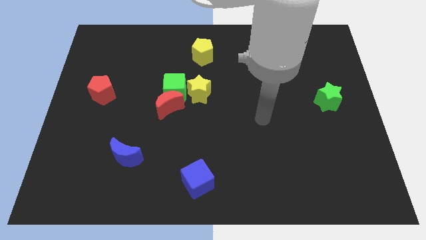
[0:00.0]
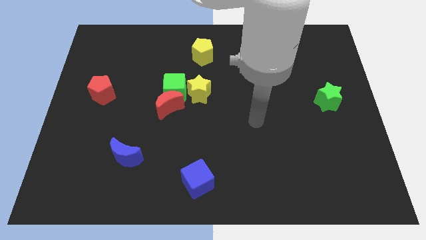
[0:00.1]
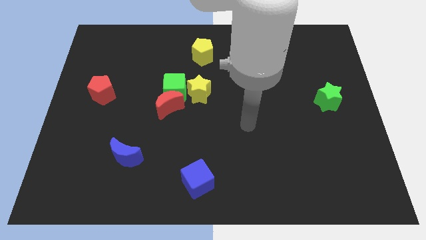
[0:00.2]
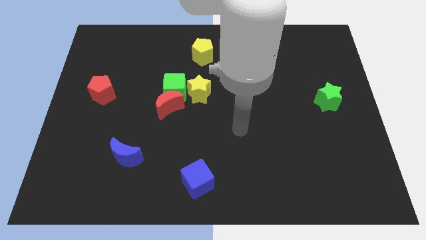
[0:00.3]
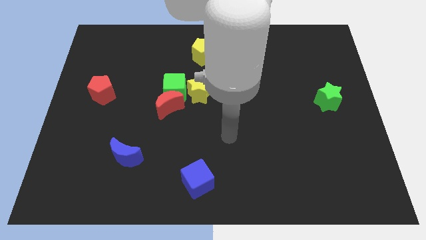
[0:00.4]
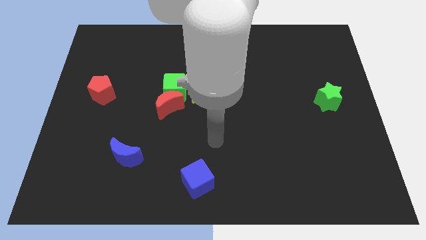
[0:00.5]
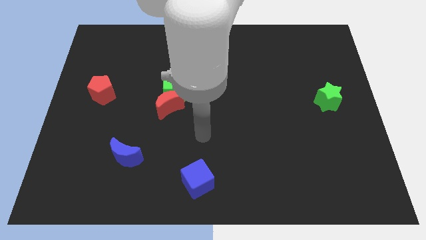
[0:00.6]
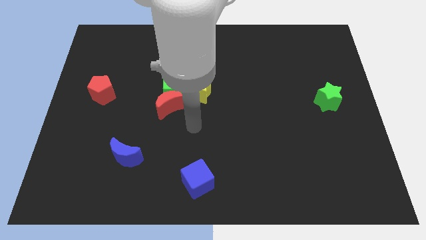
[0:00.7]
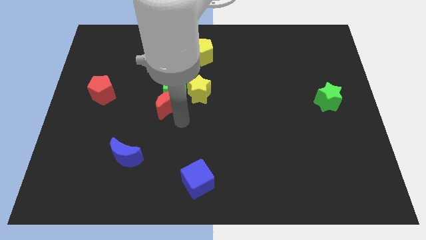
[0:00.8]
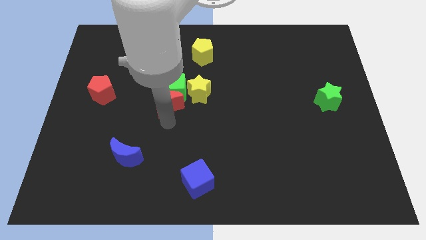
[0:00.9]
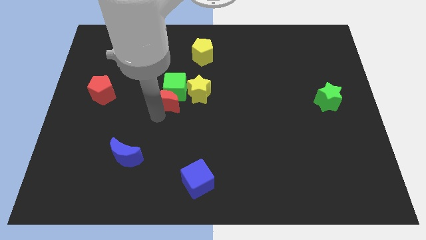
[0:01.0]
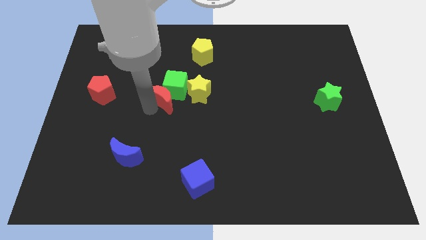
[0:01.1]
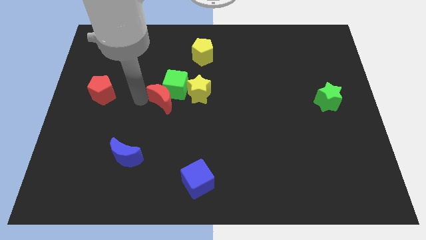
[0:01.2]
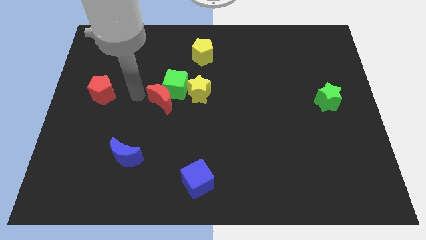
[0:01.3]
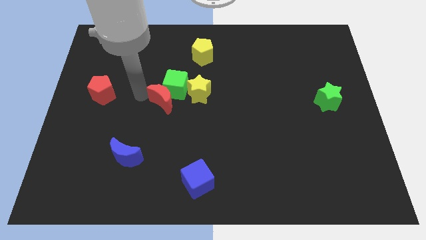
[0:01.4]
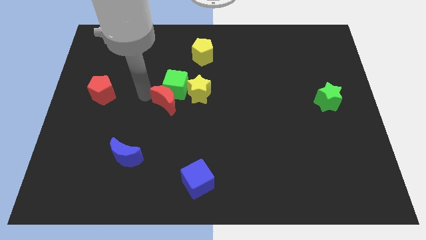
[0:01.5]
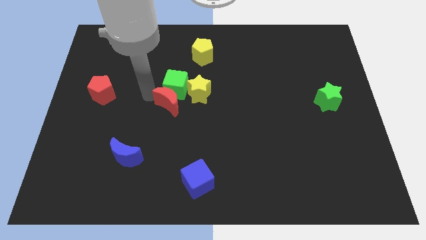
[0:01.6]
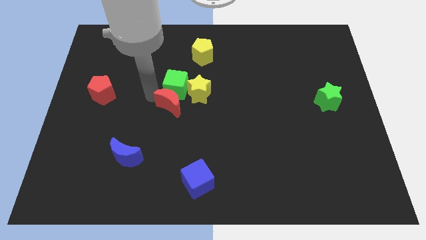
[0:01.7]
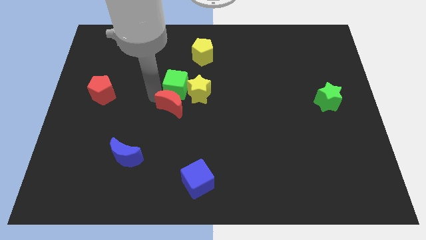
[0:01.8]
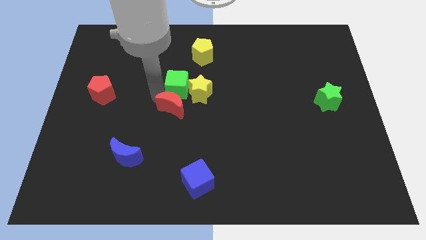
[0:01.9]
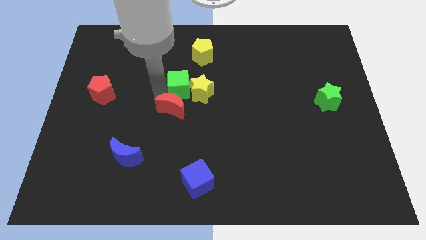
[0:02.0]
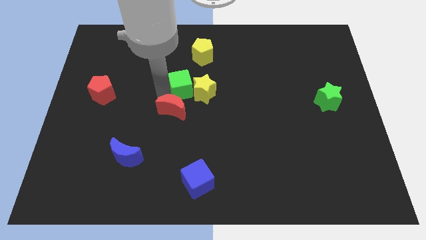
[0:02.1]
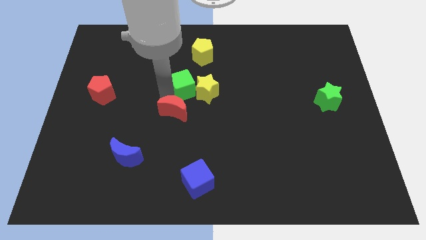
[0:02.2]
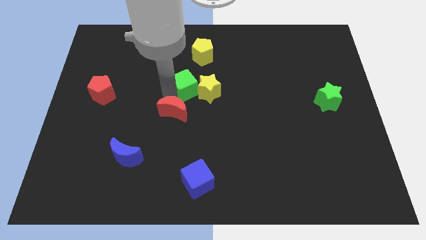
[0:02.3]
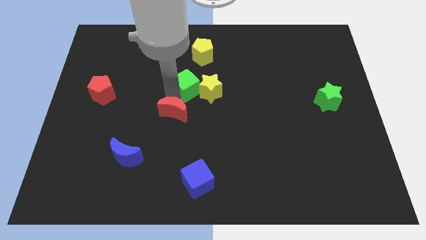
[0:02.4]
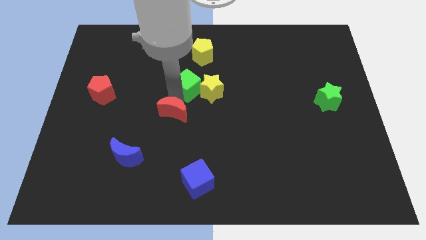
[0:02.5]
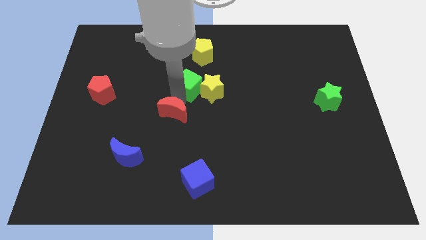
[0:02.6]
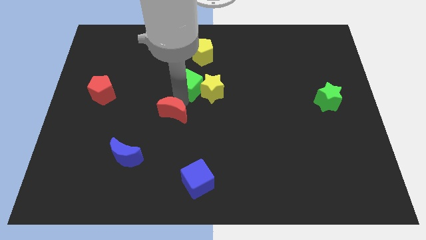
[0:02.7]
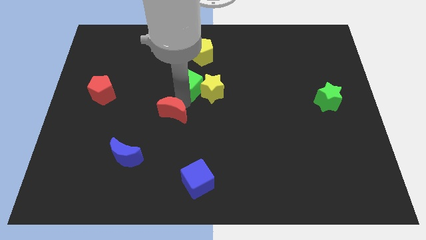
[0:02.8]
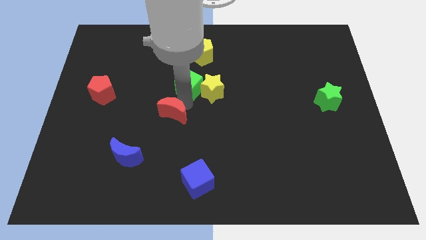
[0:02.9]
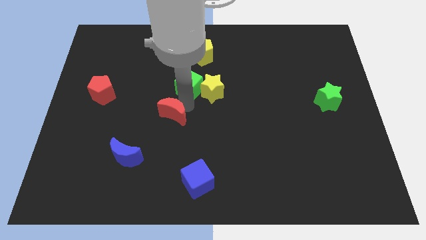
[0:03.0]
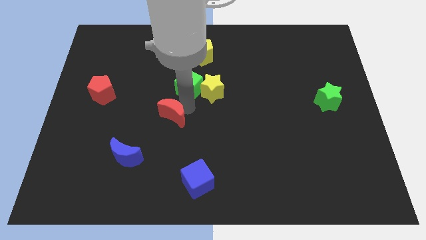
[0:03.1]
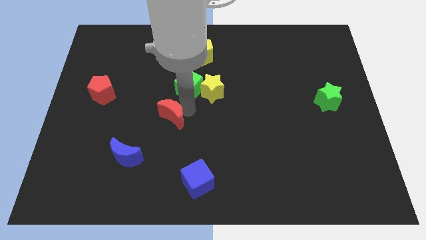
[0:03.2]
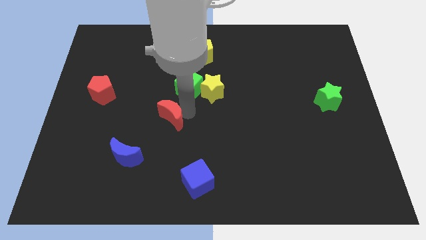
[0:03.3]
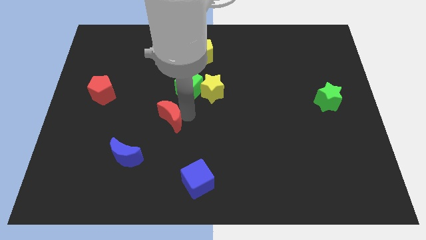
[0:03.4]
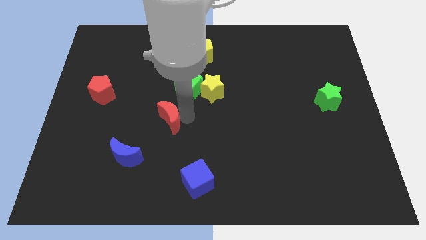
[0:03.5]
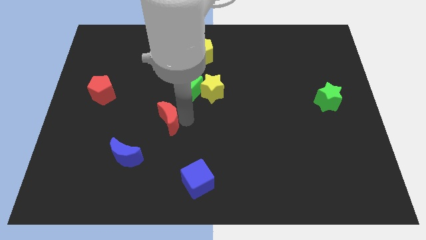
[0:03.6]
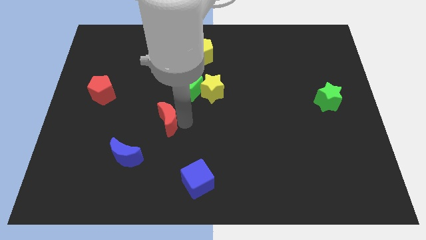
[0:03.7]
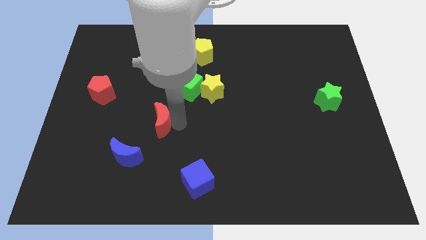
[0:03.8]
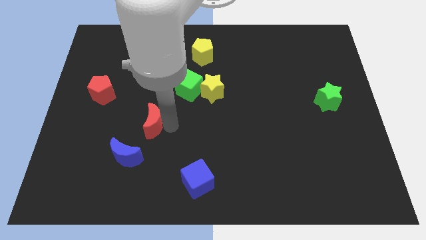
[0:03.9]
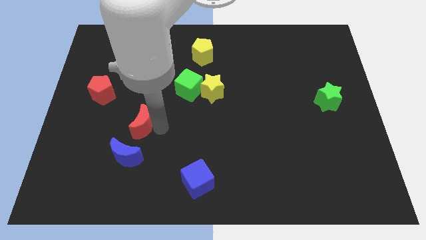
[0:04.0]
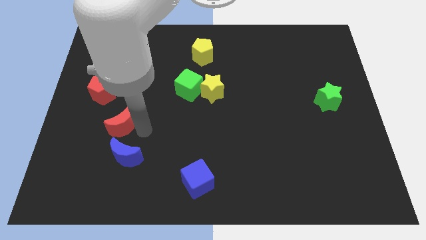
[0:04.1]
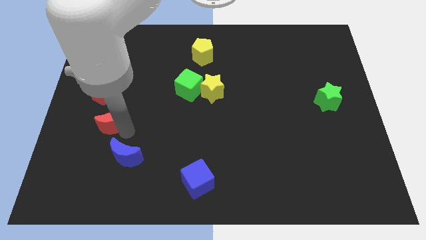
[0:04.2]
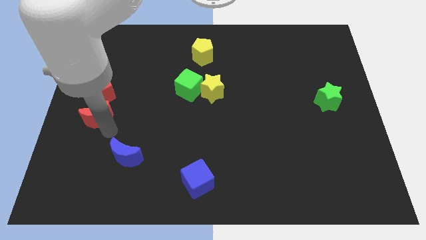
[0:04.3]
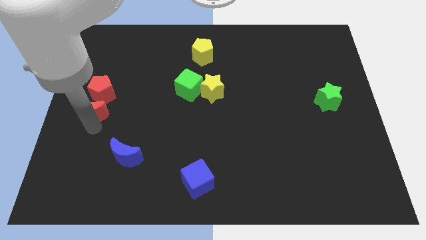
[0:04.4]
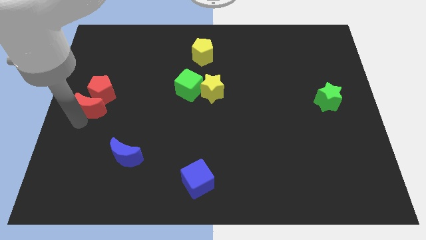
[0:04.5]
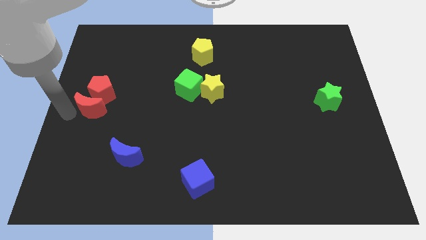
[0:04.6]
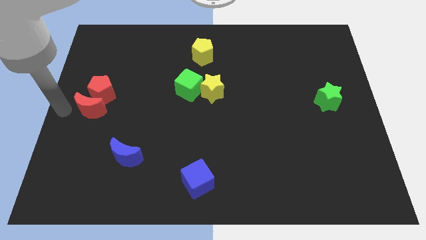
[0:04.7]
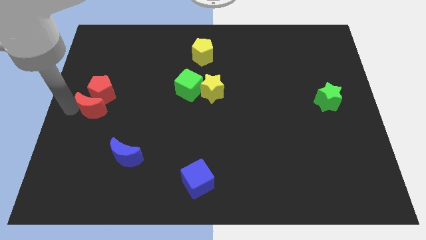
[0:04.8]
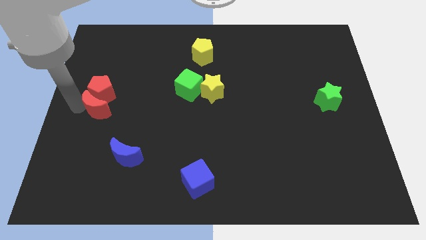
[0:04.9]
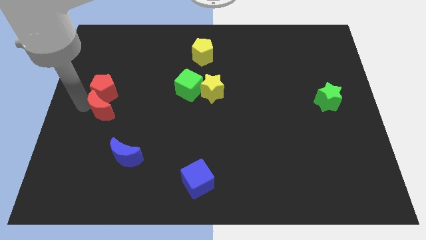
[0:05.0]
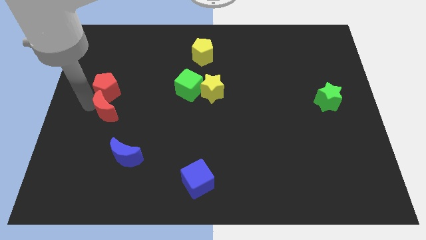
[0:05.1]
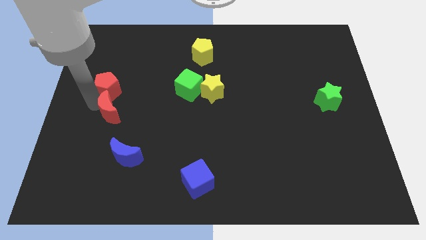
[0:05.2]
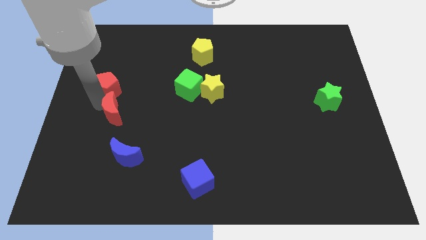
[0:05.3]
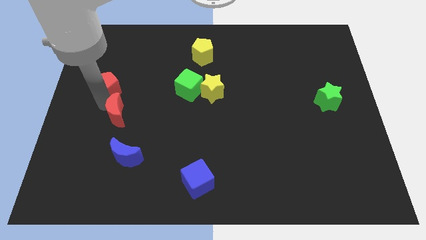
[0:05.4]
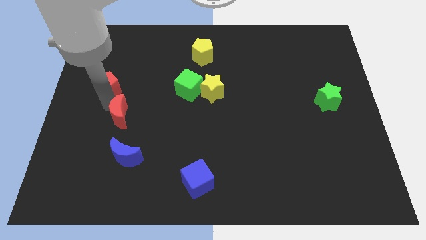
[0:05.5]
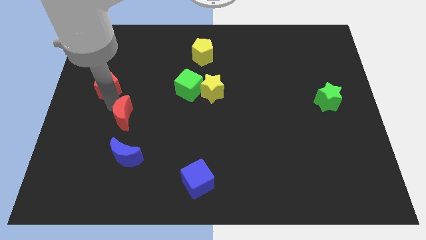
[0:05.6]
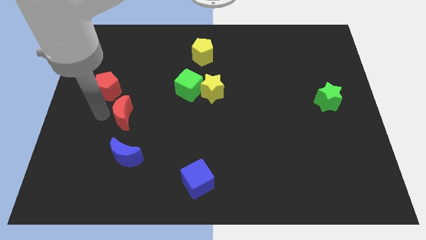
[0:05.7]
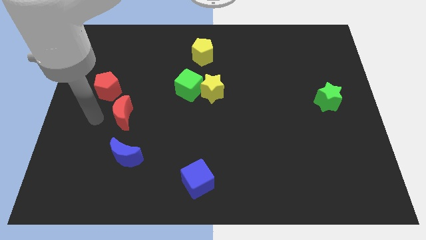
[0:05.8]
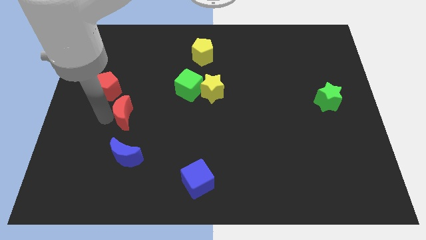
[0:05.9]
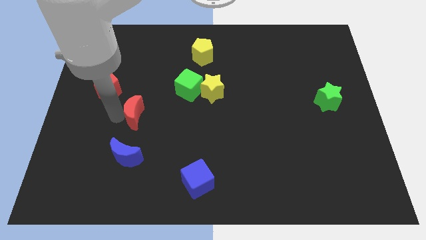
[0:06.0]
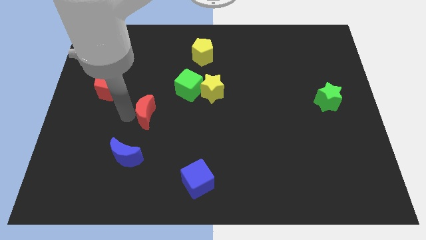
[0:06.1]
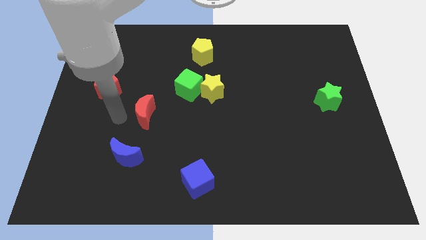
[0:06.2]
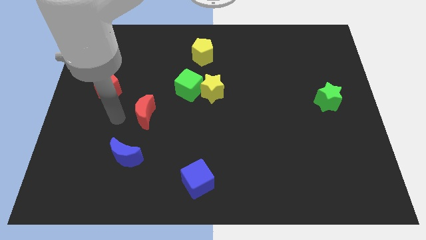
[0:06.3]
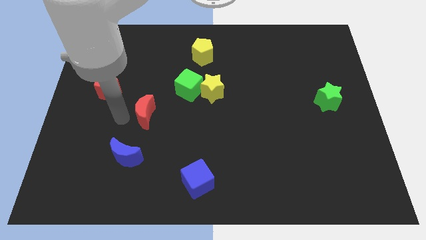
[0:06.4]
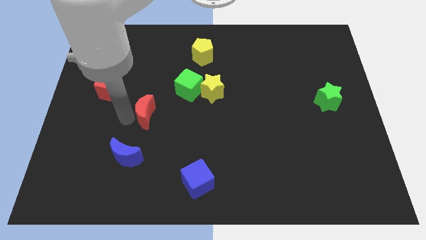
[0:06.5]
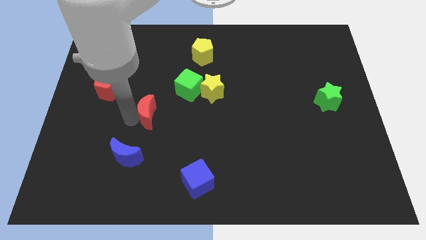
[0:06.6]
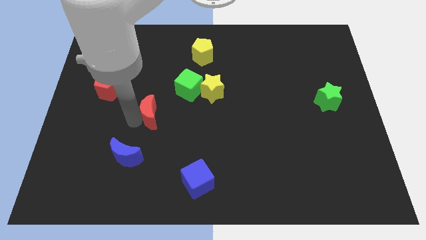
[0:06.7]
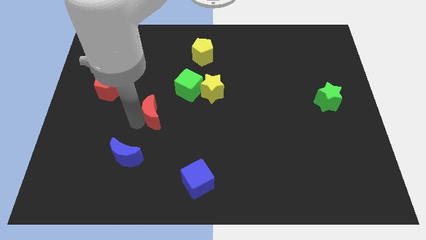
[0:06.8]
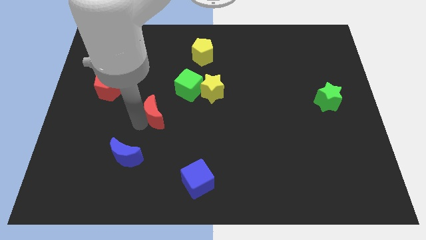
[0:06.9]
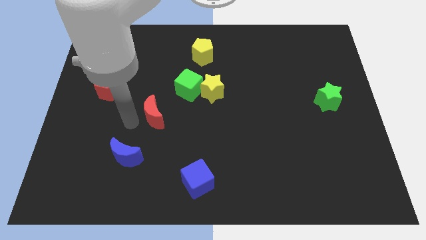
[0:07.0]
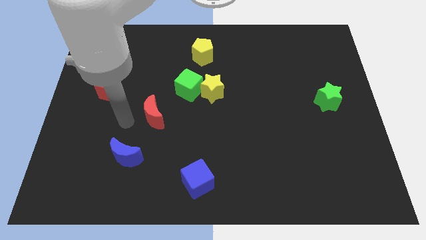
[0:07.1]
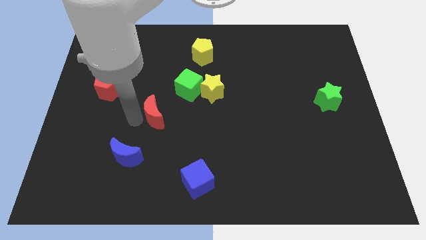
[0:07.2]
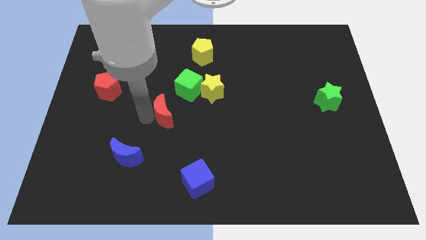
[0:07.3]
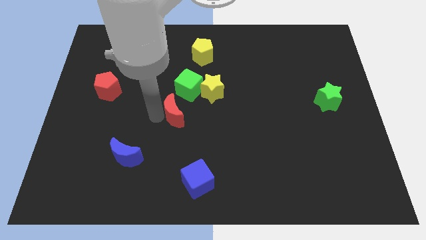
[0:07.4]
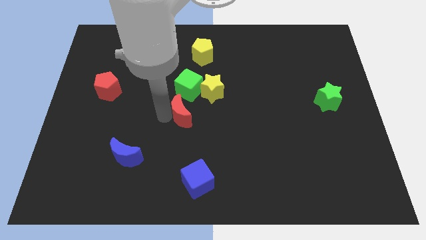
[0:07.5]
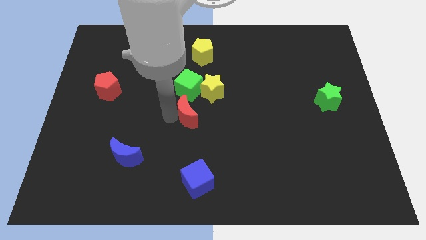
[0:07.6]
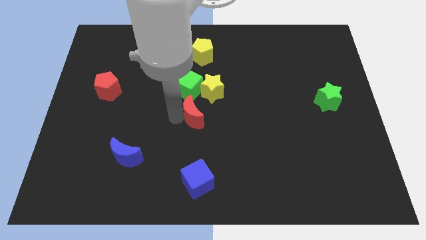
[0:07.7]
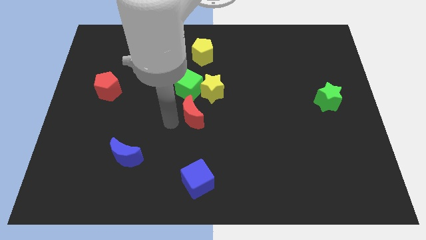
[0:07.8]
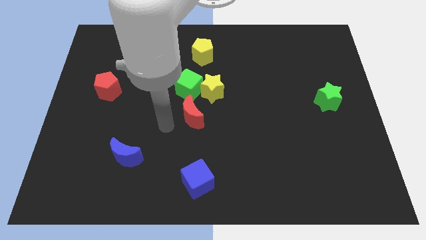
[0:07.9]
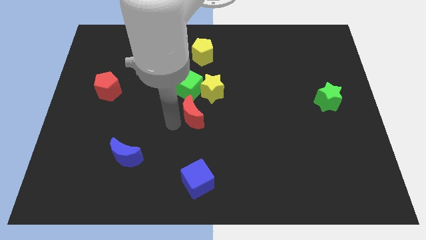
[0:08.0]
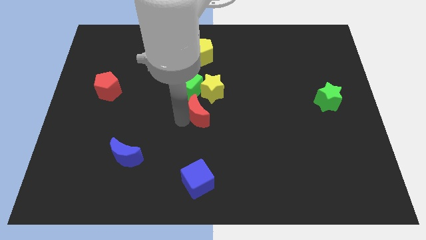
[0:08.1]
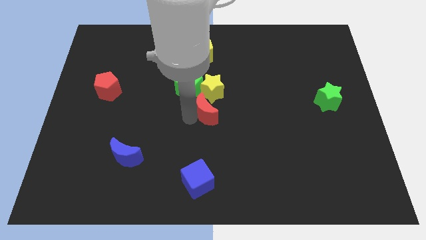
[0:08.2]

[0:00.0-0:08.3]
slightly slide the red moon to the right
